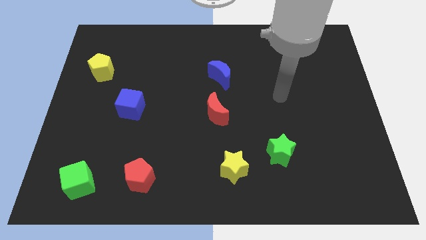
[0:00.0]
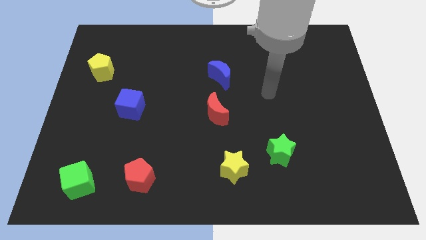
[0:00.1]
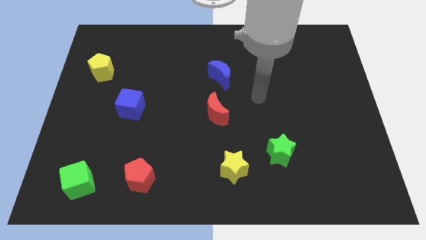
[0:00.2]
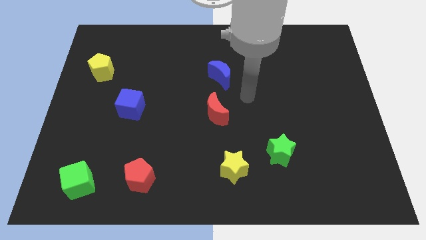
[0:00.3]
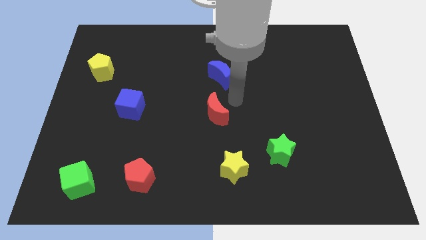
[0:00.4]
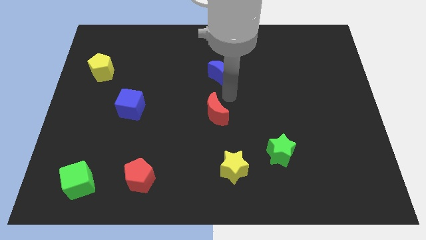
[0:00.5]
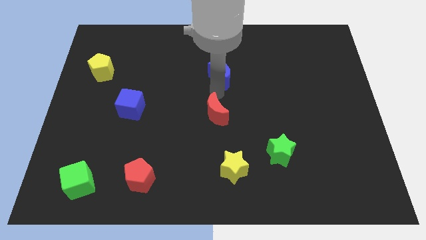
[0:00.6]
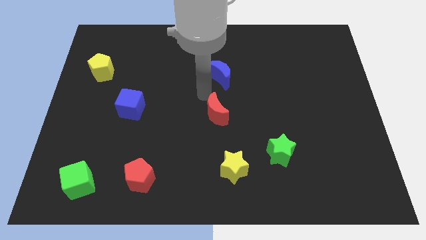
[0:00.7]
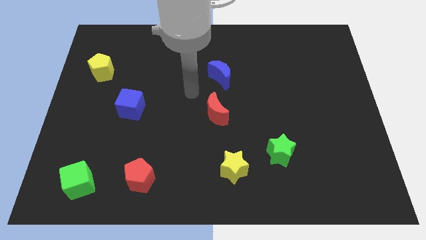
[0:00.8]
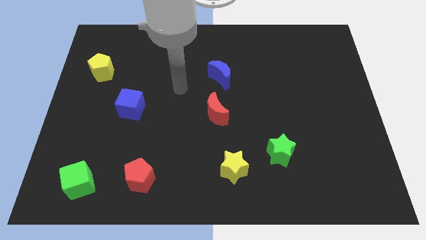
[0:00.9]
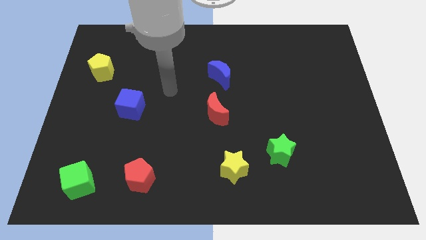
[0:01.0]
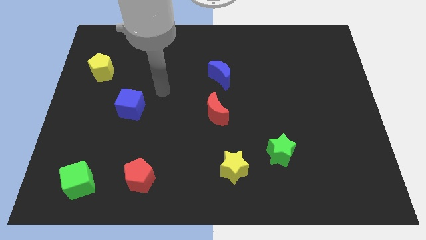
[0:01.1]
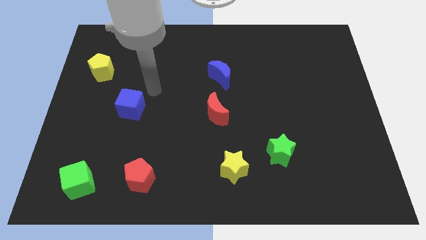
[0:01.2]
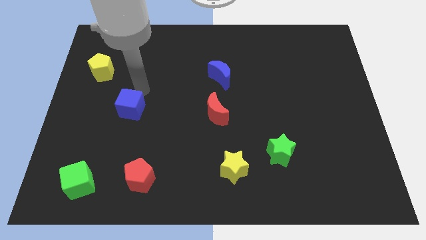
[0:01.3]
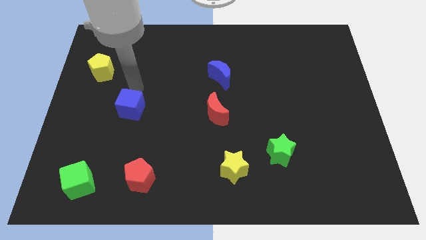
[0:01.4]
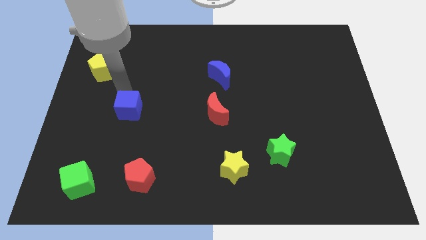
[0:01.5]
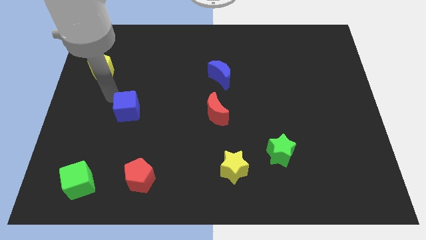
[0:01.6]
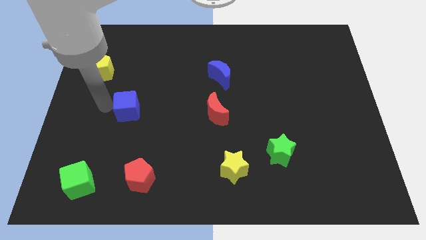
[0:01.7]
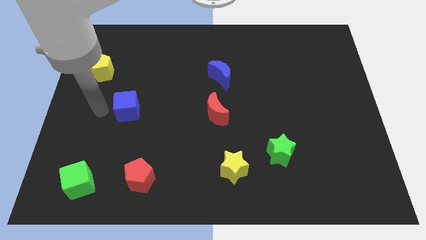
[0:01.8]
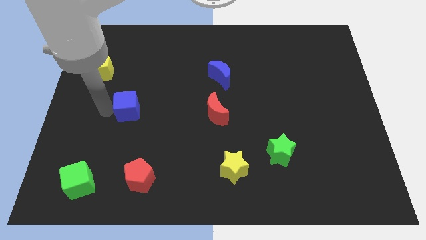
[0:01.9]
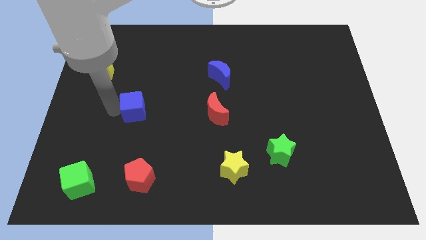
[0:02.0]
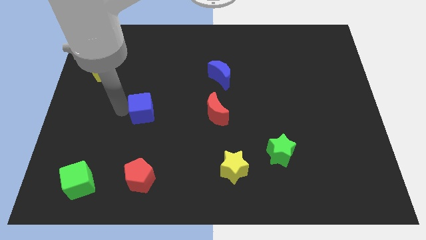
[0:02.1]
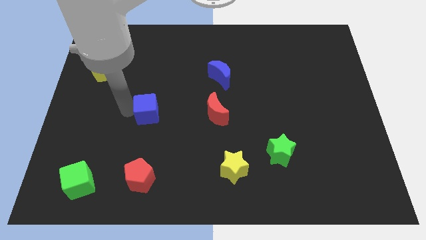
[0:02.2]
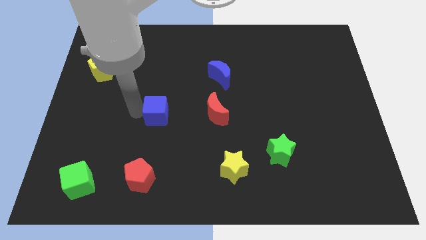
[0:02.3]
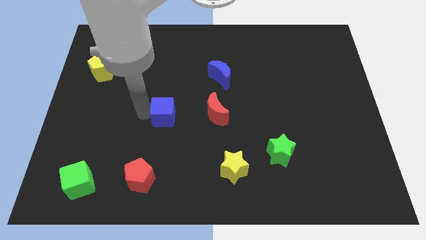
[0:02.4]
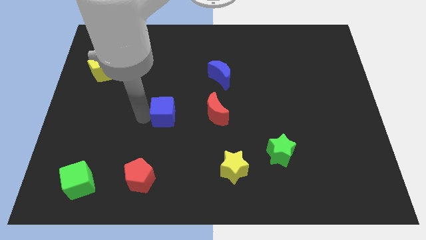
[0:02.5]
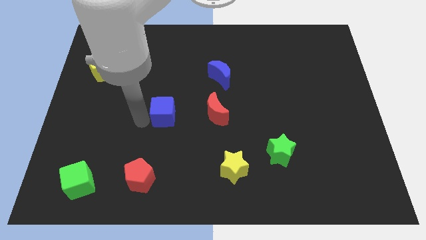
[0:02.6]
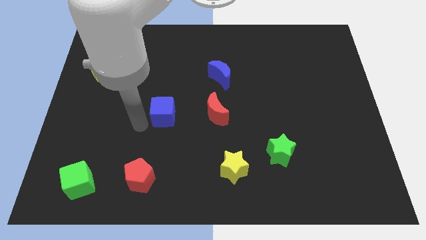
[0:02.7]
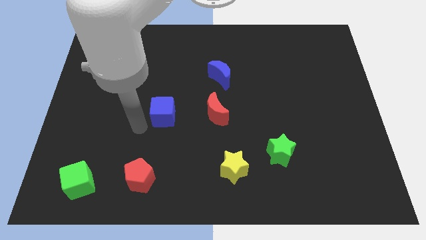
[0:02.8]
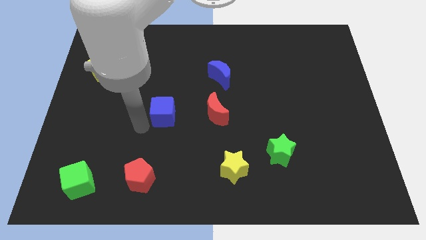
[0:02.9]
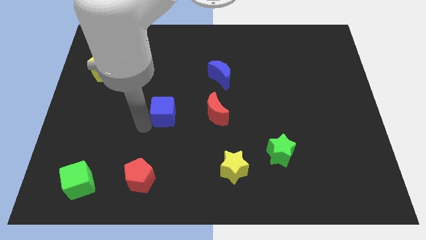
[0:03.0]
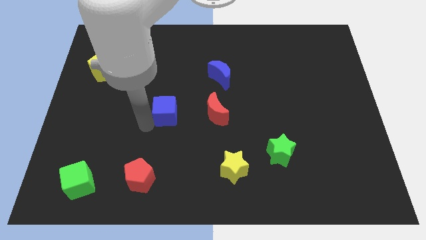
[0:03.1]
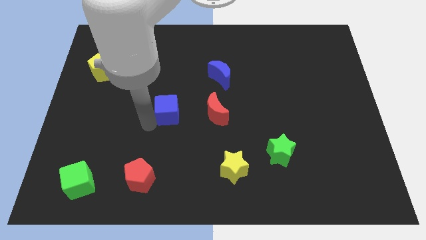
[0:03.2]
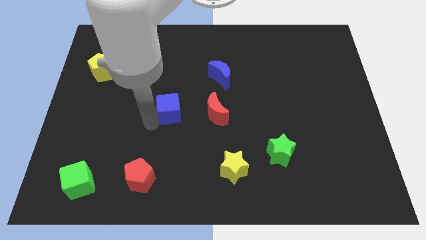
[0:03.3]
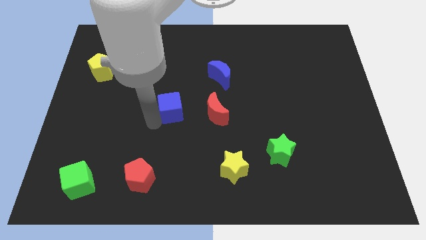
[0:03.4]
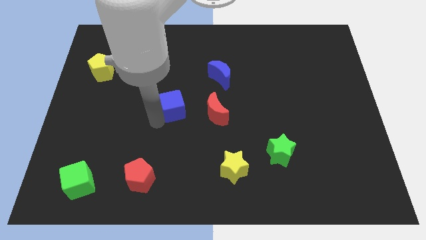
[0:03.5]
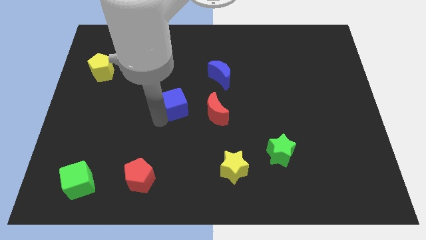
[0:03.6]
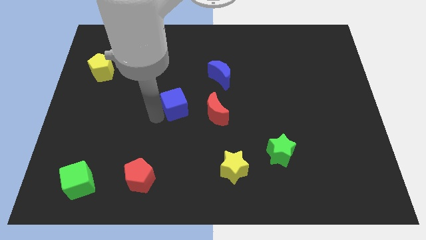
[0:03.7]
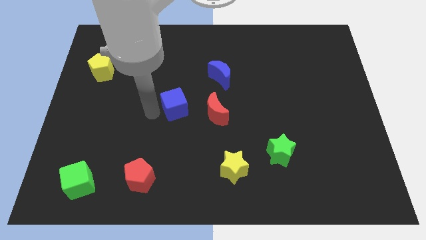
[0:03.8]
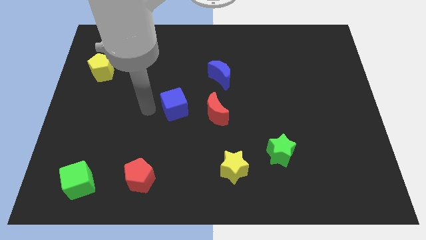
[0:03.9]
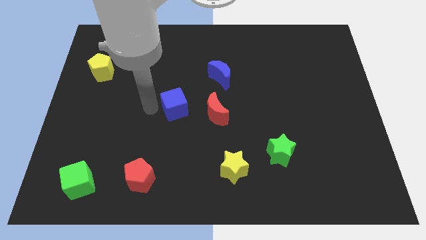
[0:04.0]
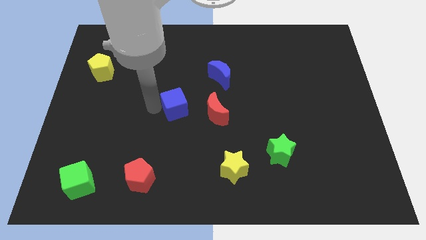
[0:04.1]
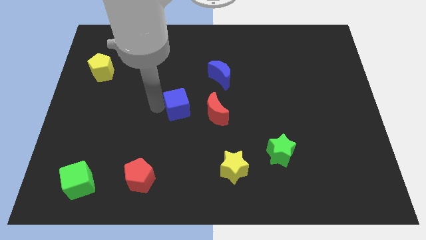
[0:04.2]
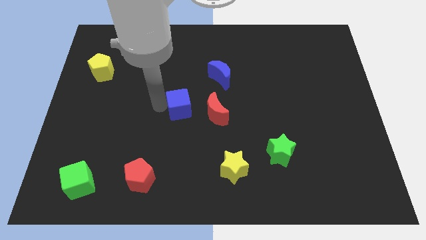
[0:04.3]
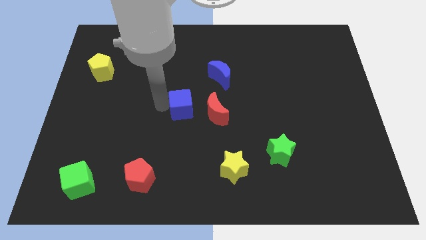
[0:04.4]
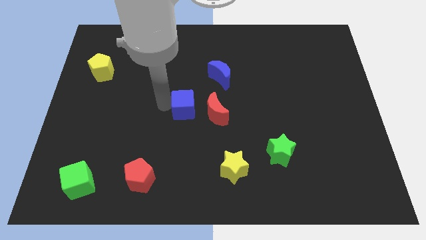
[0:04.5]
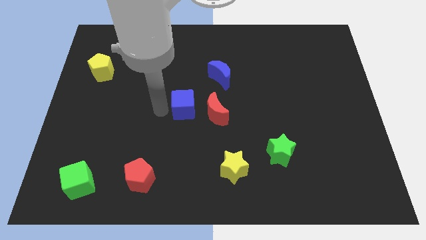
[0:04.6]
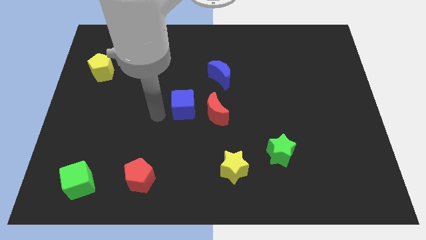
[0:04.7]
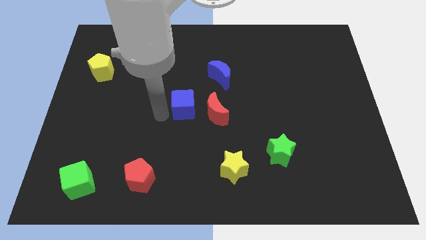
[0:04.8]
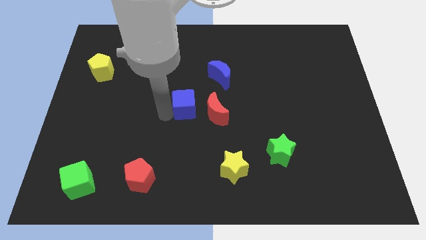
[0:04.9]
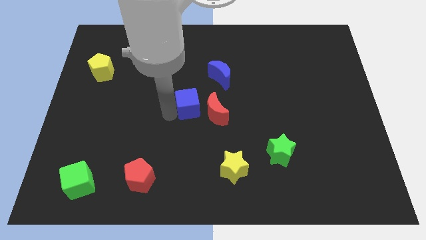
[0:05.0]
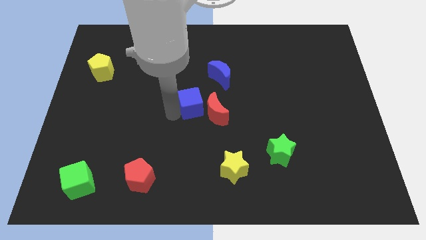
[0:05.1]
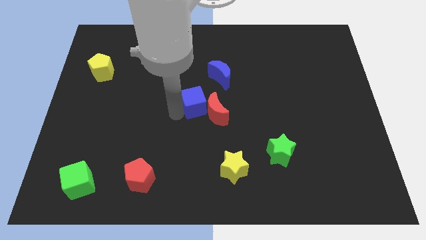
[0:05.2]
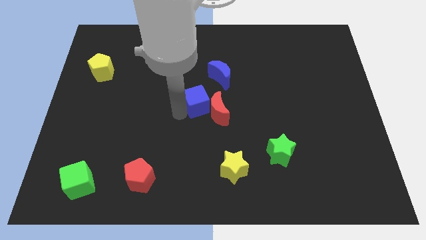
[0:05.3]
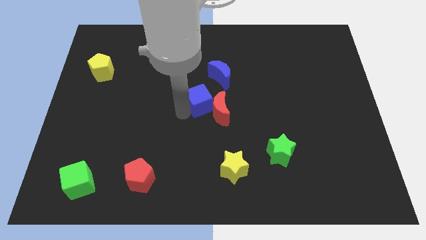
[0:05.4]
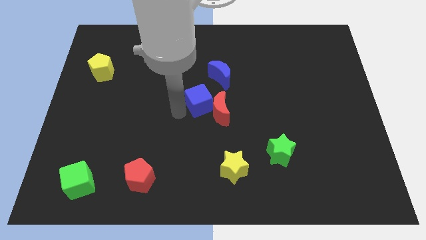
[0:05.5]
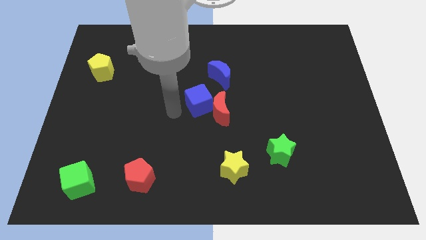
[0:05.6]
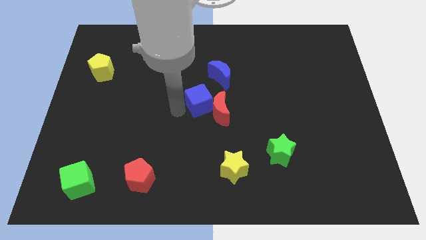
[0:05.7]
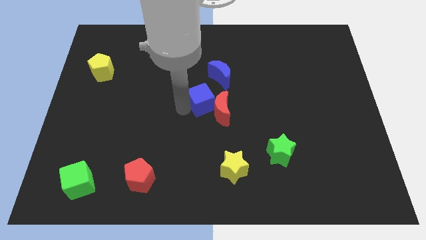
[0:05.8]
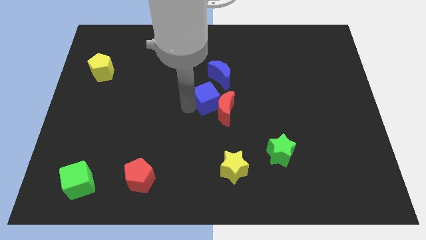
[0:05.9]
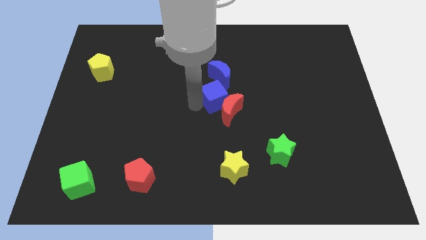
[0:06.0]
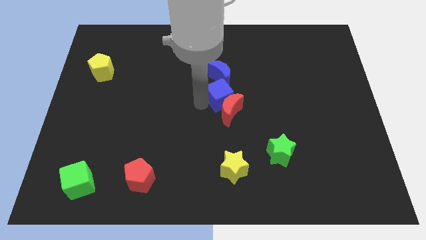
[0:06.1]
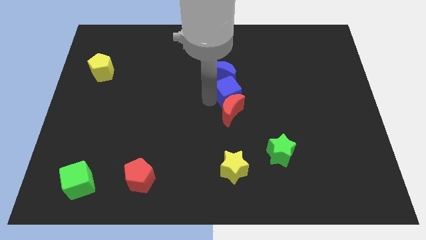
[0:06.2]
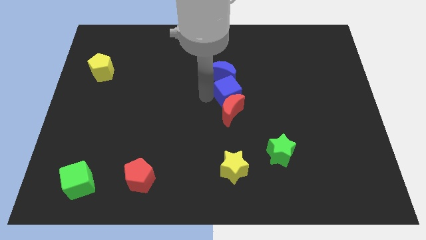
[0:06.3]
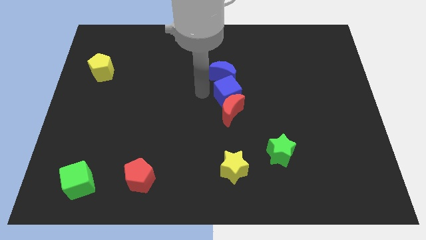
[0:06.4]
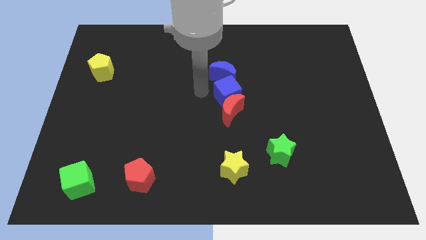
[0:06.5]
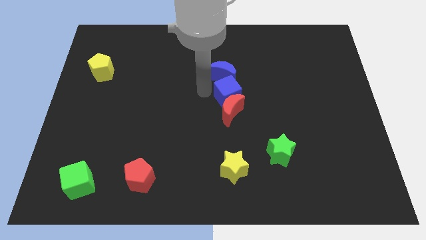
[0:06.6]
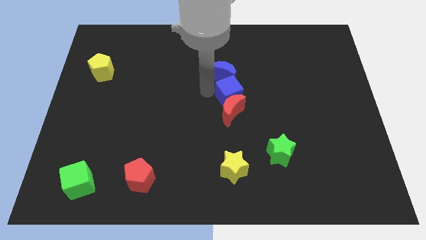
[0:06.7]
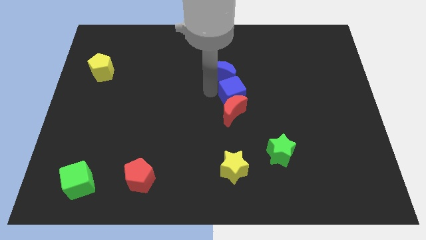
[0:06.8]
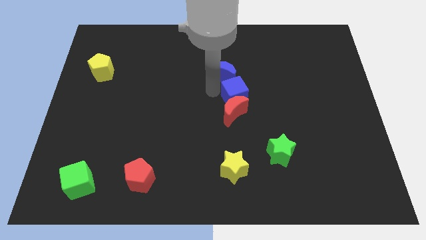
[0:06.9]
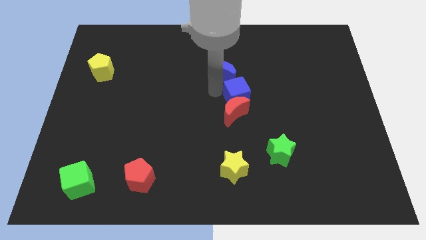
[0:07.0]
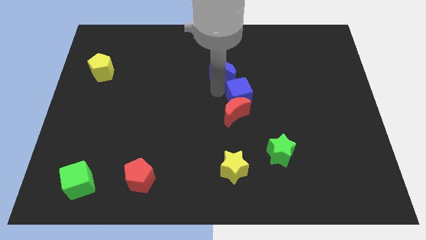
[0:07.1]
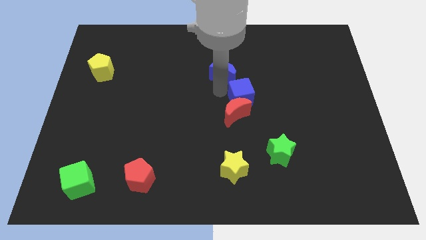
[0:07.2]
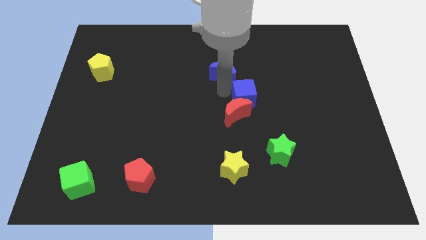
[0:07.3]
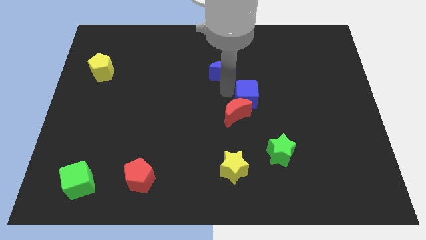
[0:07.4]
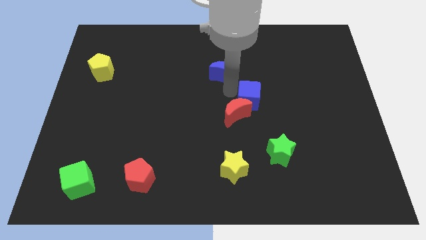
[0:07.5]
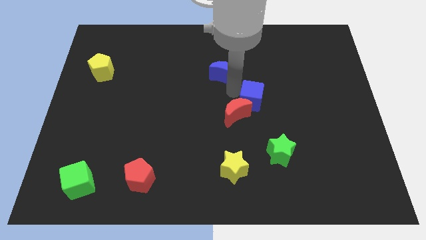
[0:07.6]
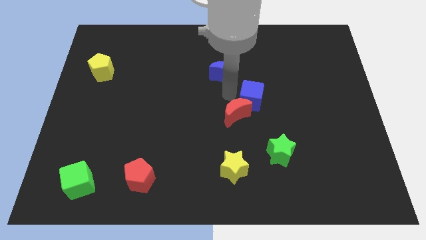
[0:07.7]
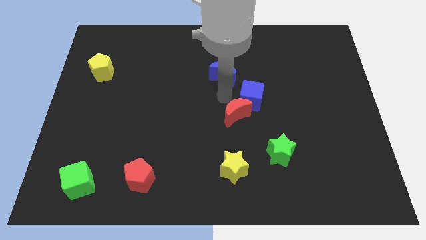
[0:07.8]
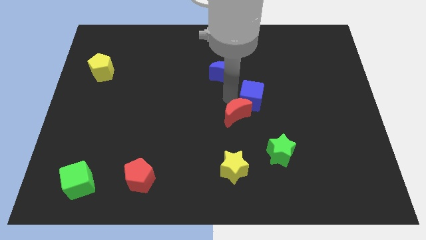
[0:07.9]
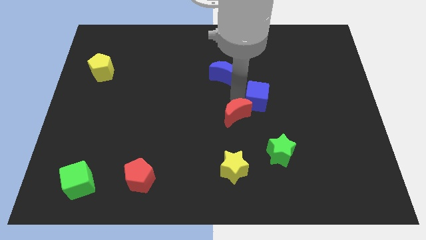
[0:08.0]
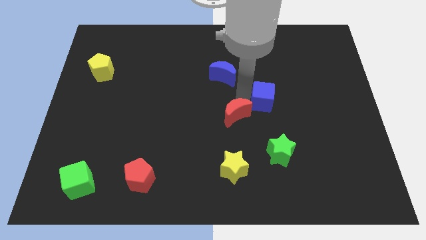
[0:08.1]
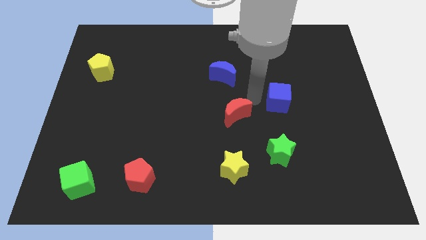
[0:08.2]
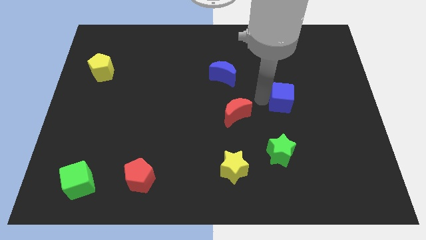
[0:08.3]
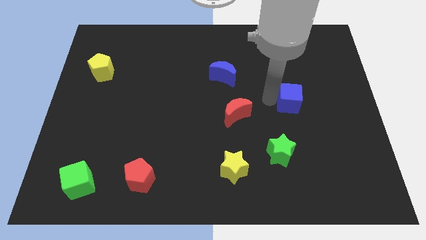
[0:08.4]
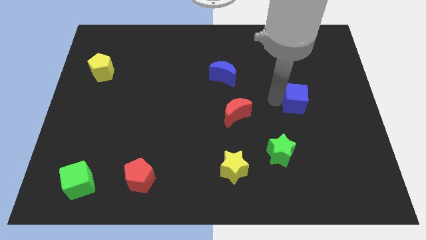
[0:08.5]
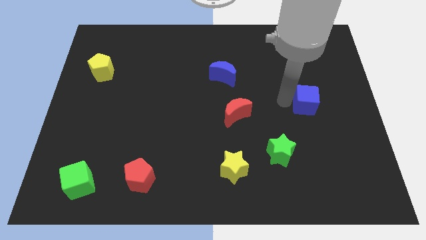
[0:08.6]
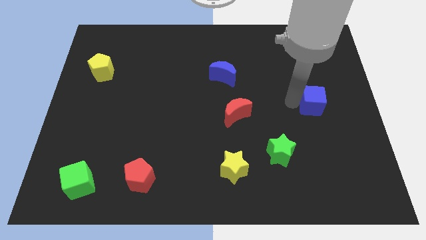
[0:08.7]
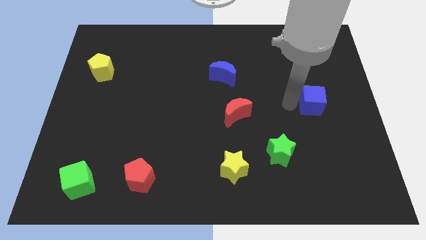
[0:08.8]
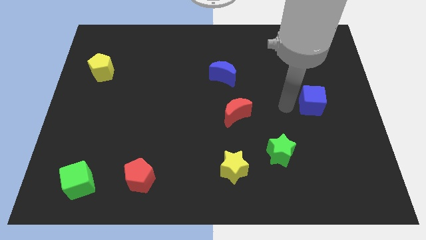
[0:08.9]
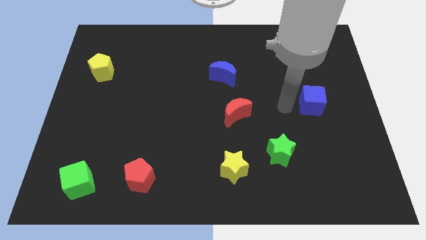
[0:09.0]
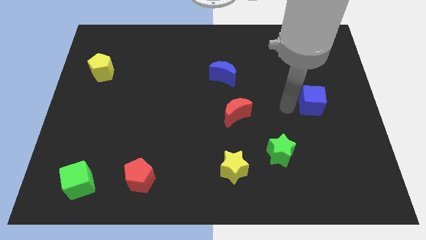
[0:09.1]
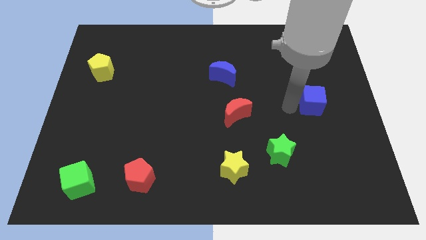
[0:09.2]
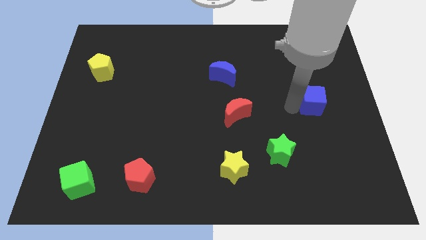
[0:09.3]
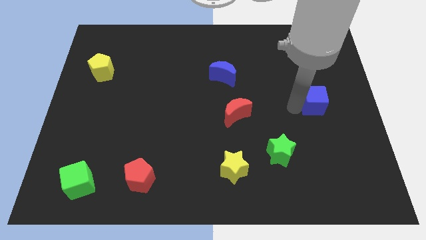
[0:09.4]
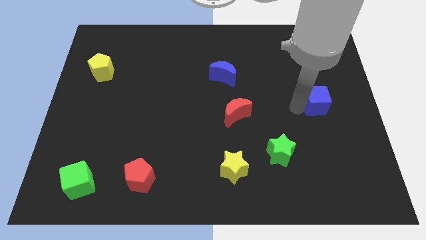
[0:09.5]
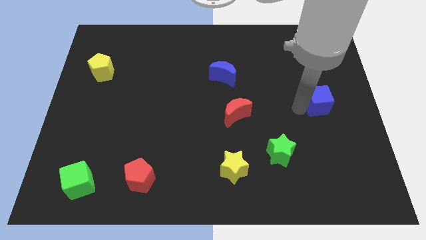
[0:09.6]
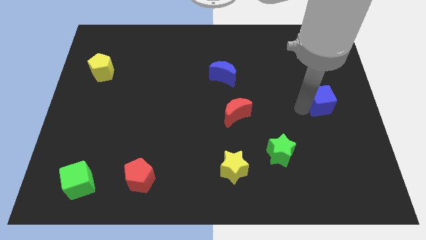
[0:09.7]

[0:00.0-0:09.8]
put the blue cube to the right side of the board
